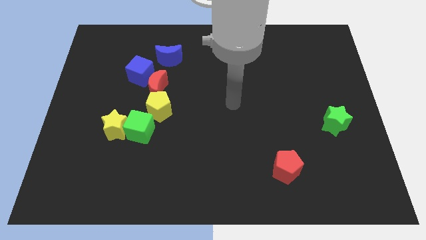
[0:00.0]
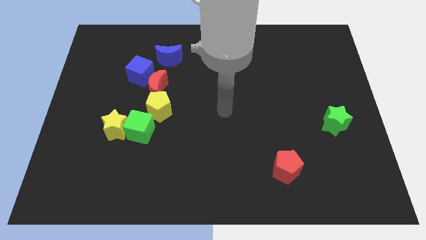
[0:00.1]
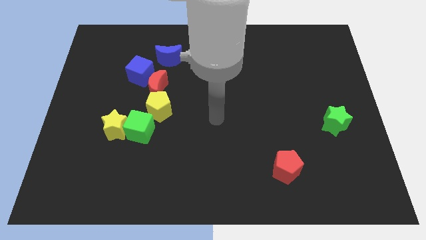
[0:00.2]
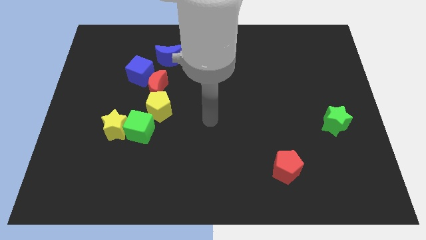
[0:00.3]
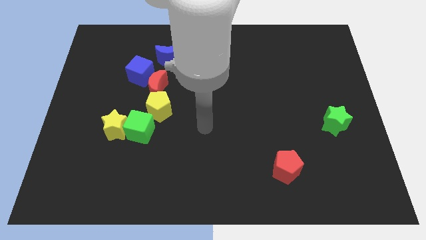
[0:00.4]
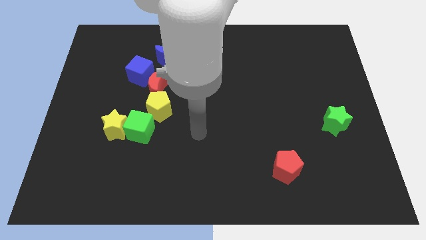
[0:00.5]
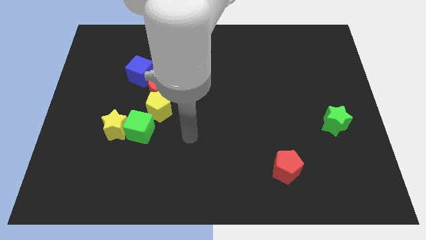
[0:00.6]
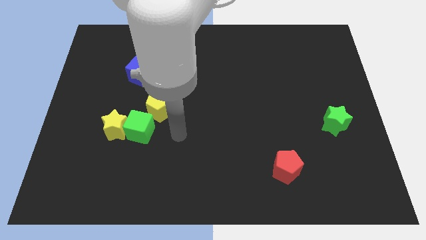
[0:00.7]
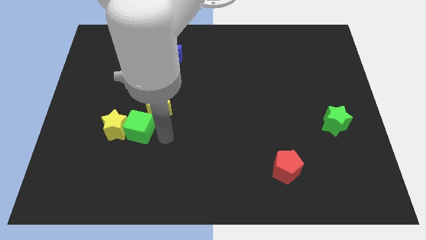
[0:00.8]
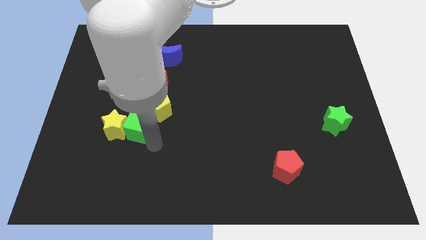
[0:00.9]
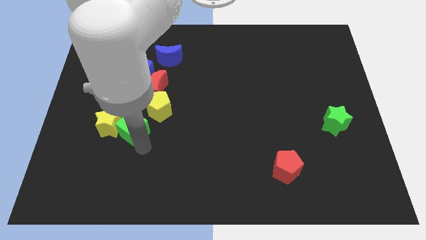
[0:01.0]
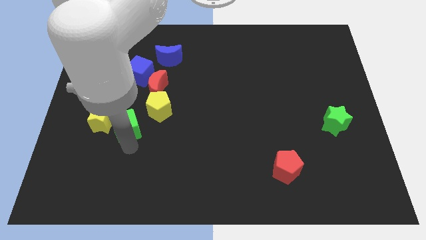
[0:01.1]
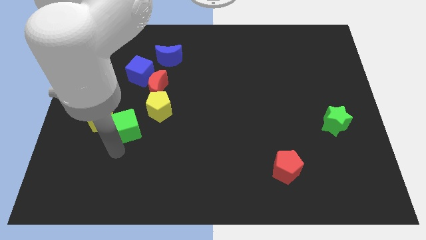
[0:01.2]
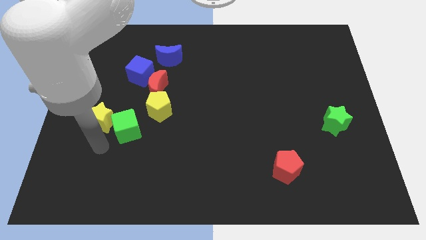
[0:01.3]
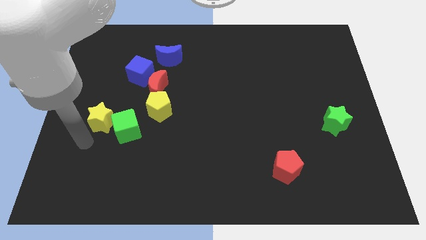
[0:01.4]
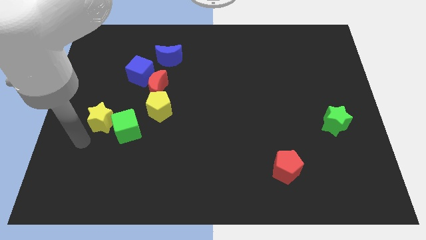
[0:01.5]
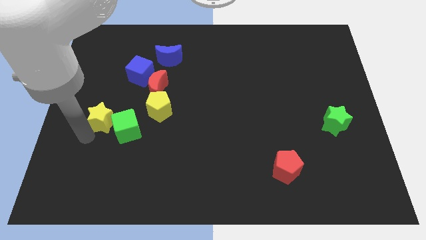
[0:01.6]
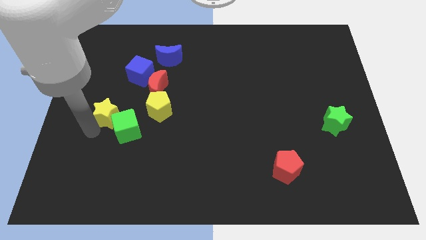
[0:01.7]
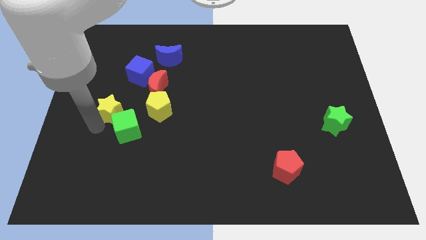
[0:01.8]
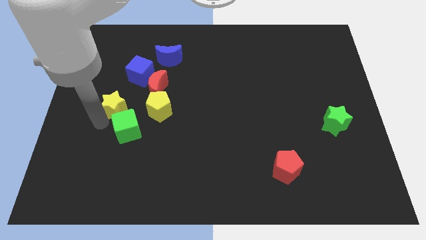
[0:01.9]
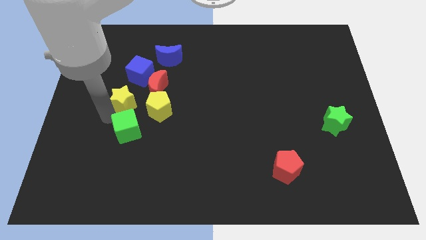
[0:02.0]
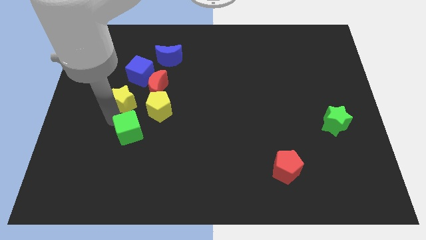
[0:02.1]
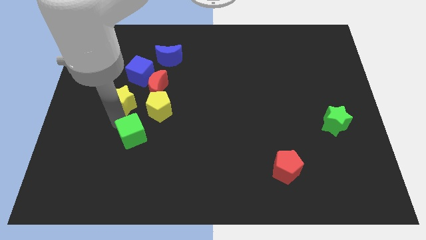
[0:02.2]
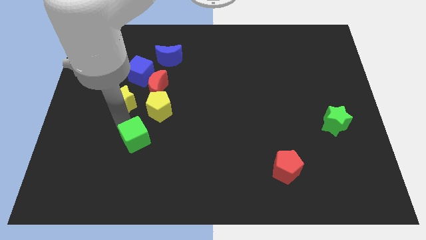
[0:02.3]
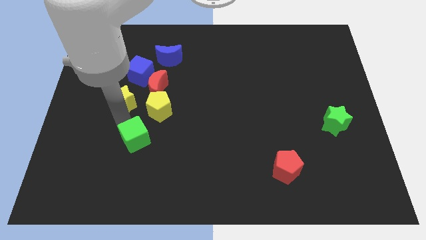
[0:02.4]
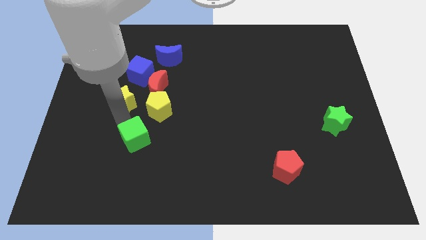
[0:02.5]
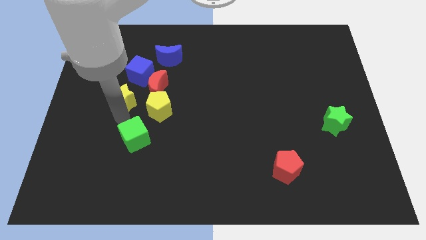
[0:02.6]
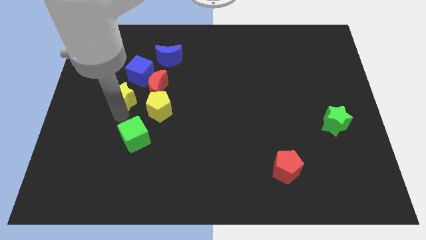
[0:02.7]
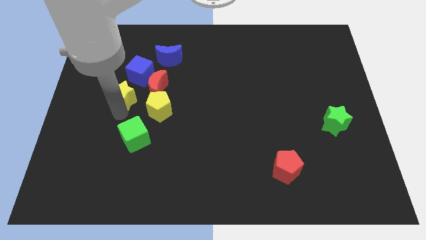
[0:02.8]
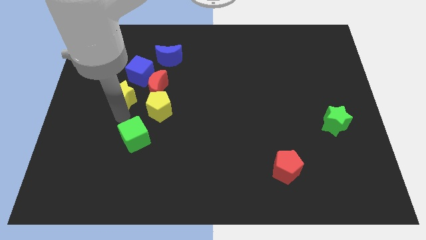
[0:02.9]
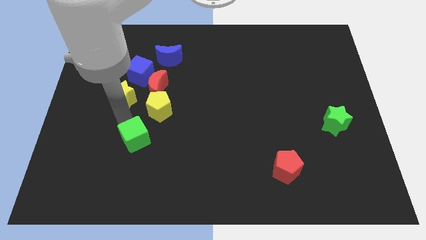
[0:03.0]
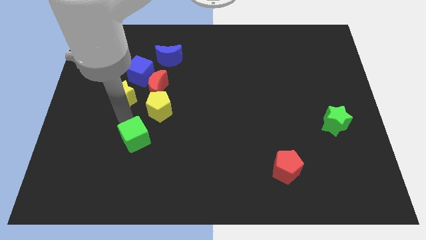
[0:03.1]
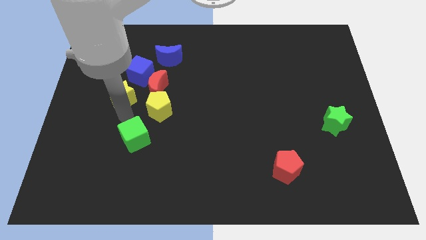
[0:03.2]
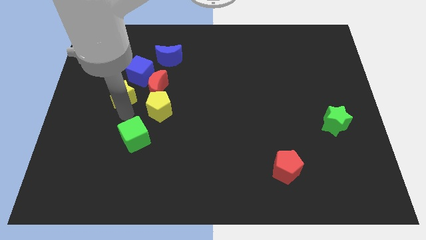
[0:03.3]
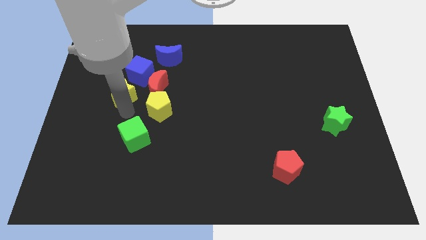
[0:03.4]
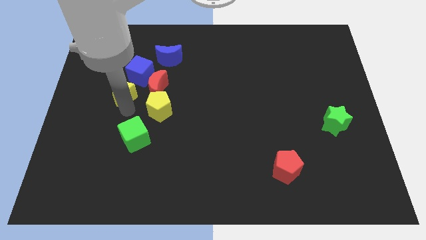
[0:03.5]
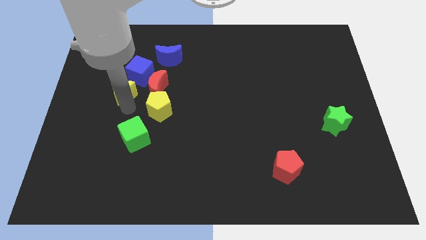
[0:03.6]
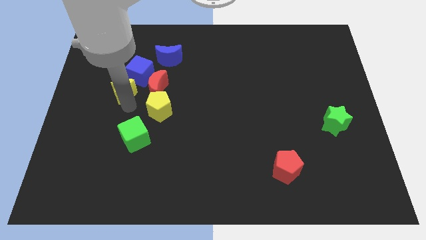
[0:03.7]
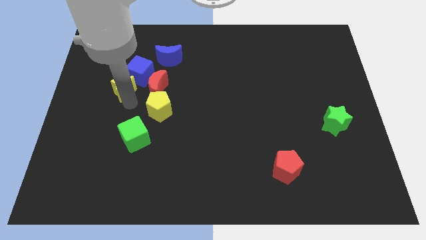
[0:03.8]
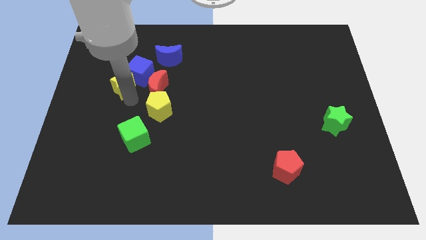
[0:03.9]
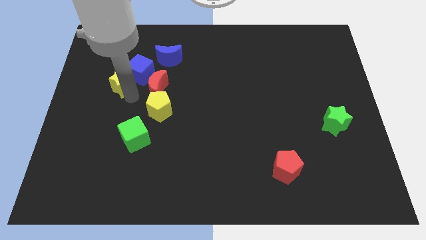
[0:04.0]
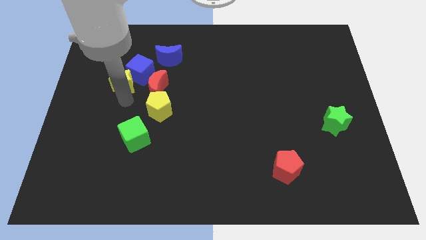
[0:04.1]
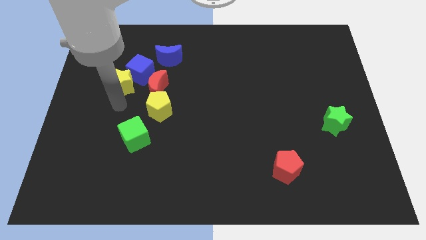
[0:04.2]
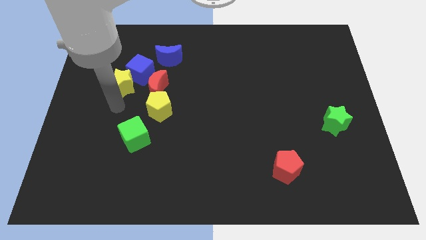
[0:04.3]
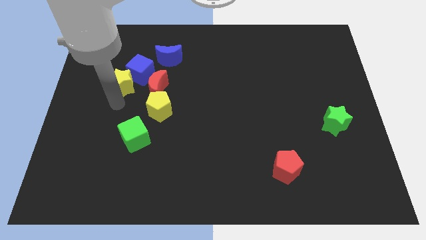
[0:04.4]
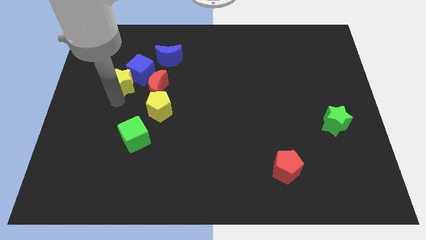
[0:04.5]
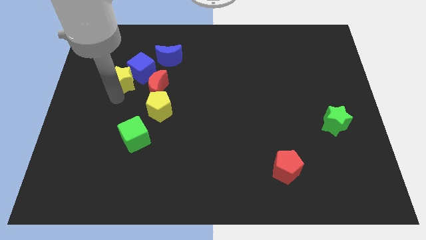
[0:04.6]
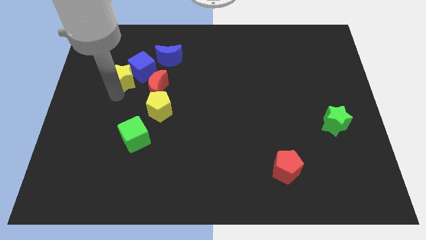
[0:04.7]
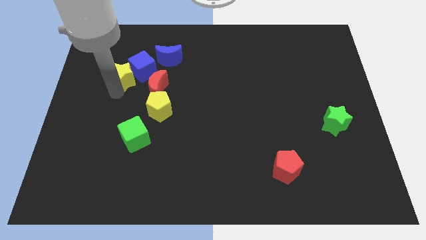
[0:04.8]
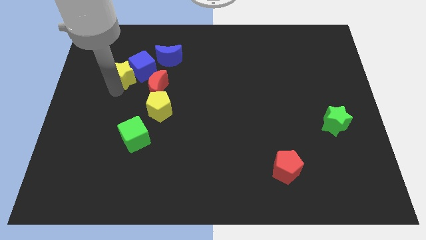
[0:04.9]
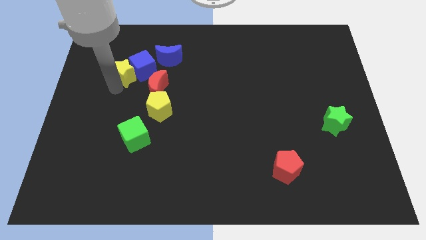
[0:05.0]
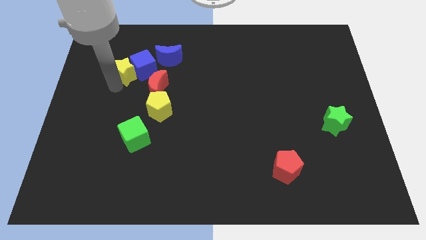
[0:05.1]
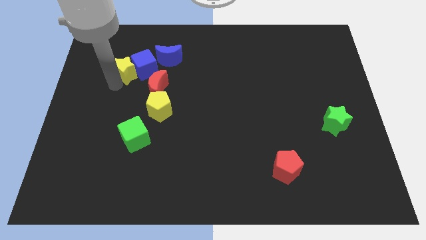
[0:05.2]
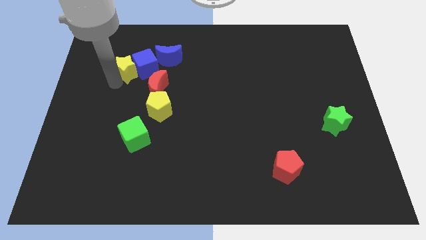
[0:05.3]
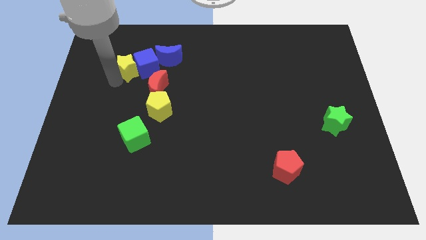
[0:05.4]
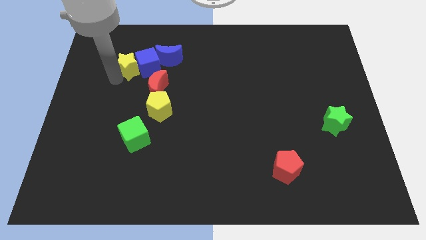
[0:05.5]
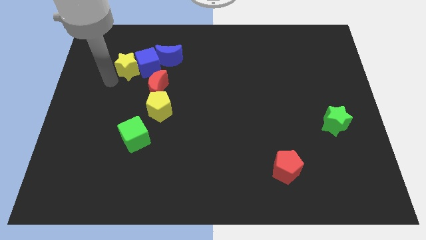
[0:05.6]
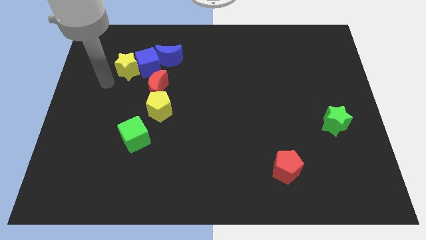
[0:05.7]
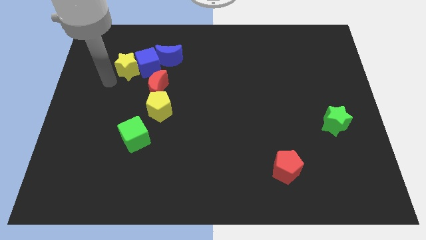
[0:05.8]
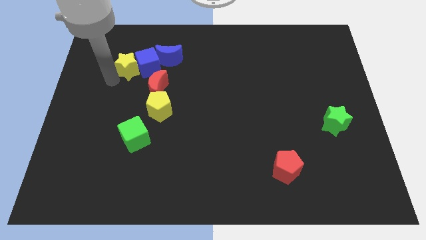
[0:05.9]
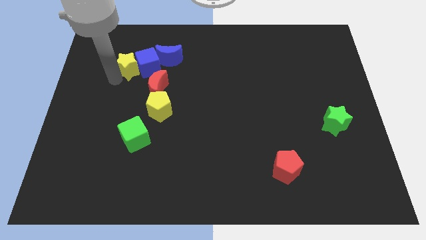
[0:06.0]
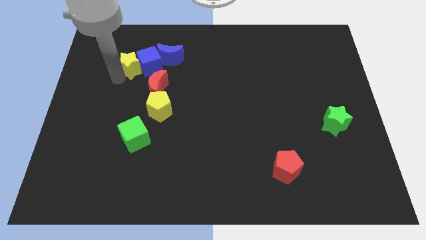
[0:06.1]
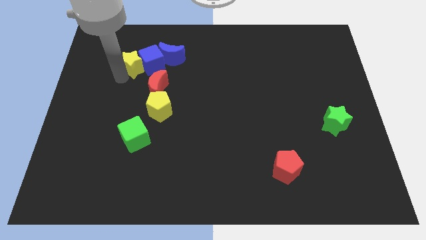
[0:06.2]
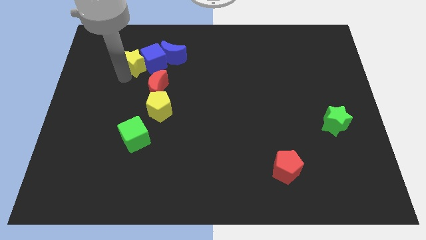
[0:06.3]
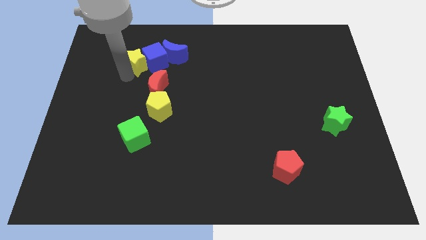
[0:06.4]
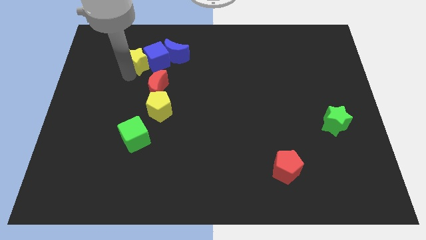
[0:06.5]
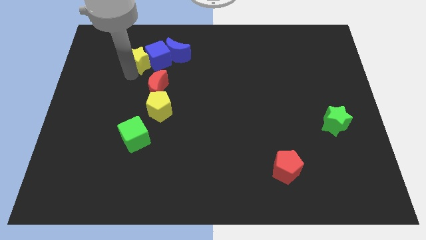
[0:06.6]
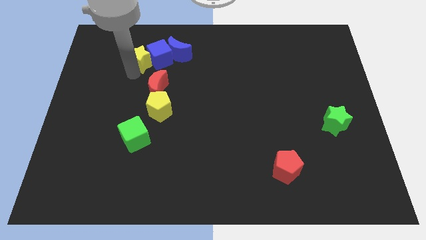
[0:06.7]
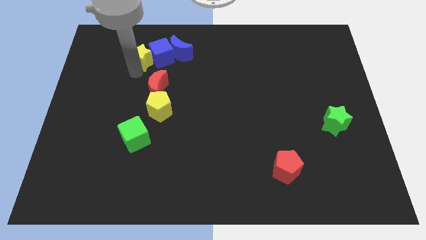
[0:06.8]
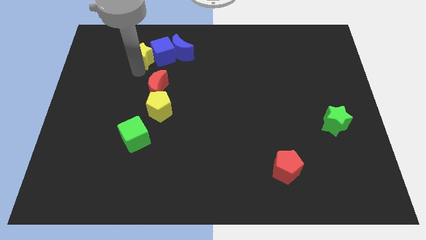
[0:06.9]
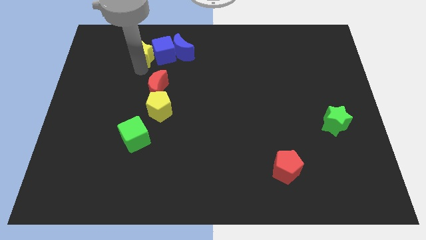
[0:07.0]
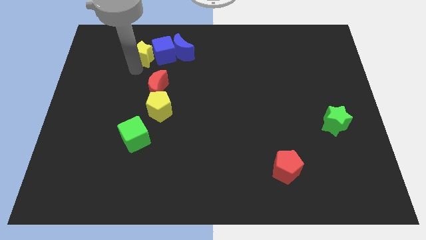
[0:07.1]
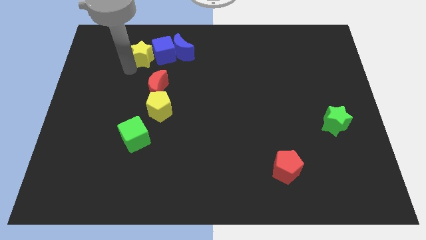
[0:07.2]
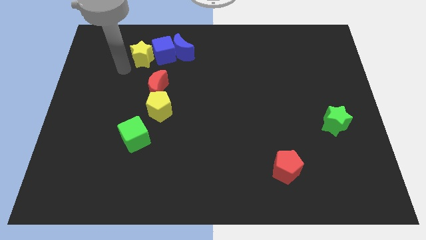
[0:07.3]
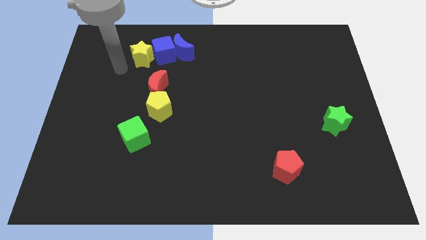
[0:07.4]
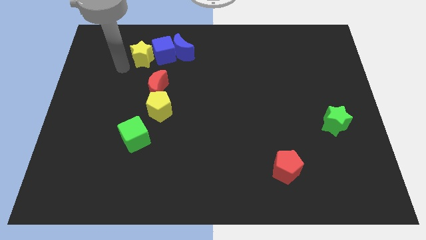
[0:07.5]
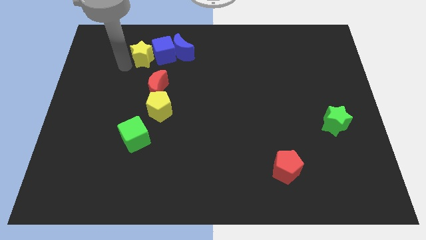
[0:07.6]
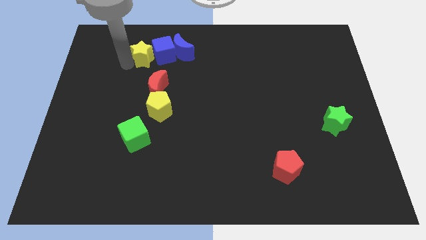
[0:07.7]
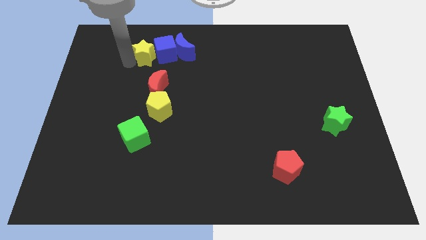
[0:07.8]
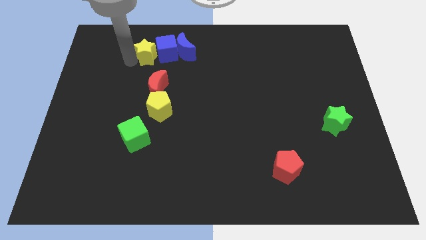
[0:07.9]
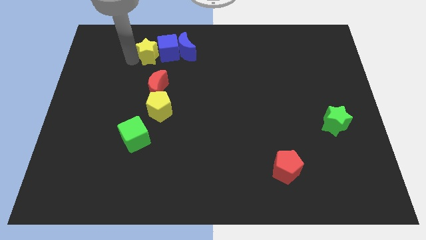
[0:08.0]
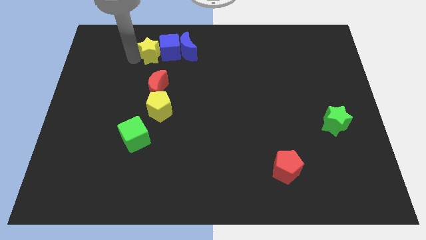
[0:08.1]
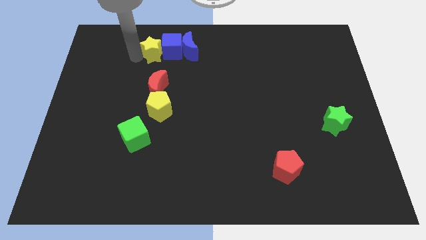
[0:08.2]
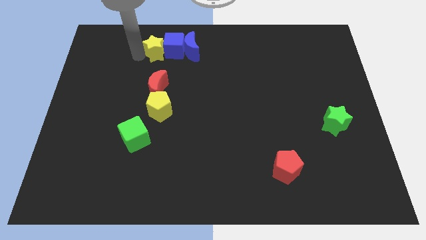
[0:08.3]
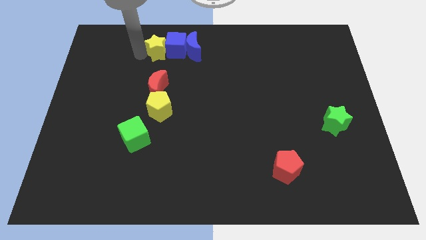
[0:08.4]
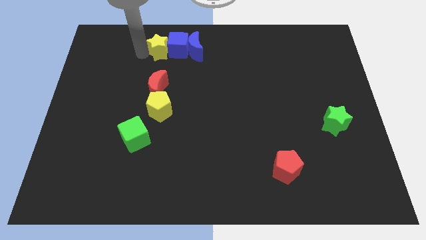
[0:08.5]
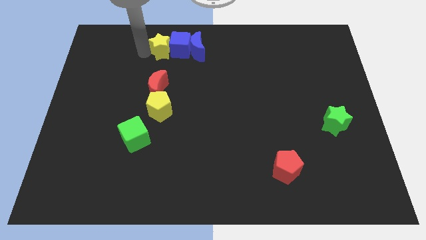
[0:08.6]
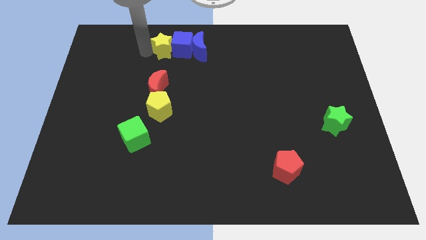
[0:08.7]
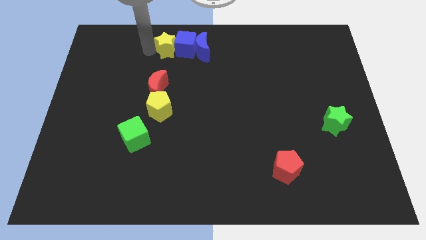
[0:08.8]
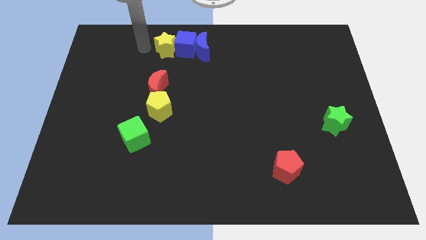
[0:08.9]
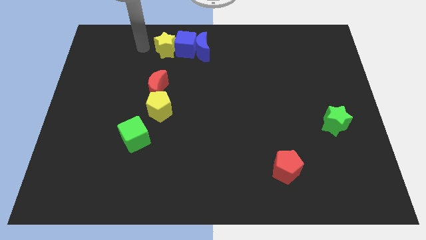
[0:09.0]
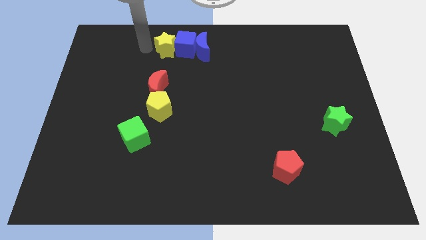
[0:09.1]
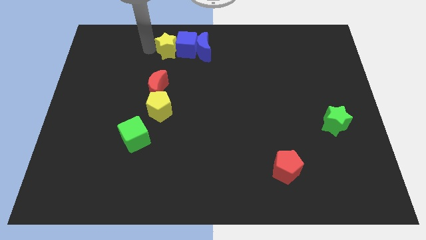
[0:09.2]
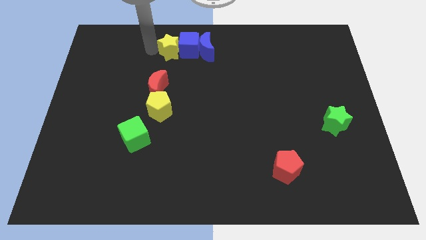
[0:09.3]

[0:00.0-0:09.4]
slide the yellow star upwards and to the right diagonally
